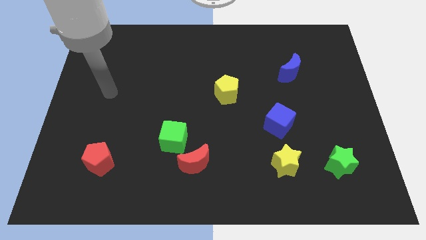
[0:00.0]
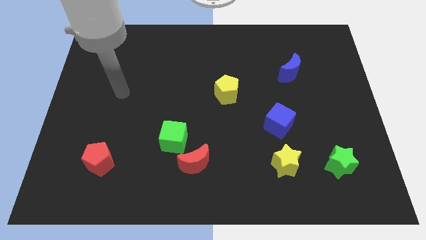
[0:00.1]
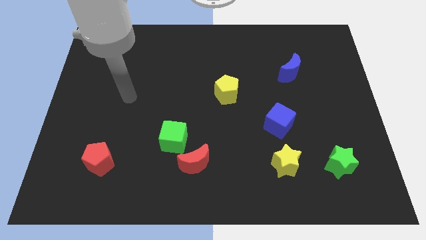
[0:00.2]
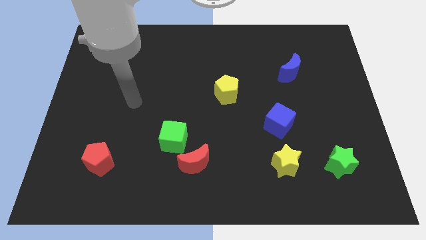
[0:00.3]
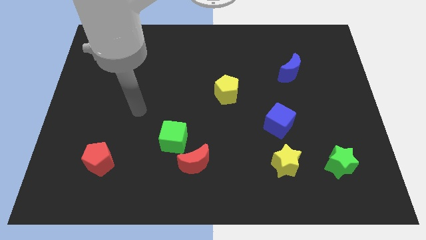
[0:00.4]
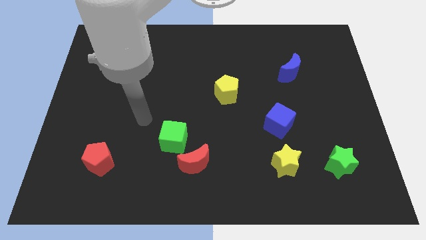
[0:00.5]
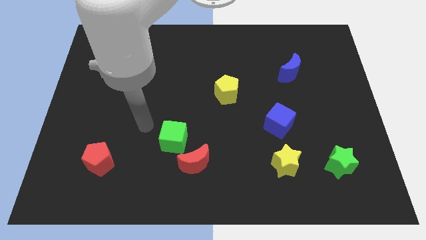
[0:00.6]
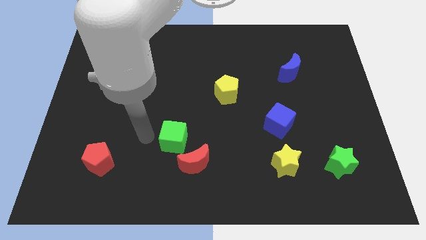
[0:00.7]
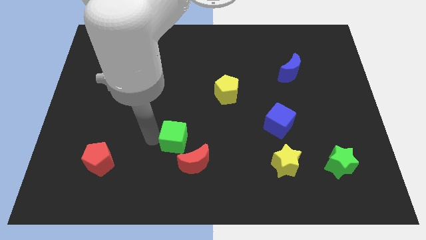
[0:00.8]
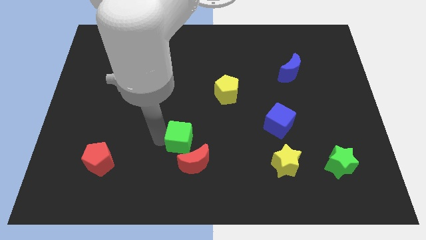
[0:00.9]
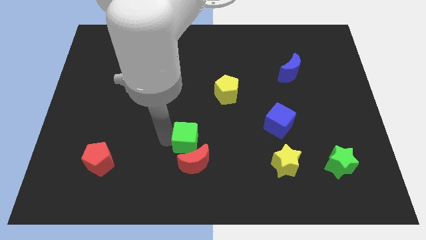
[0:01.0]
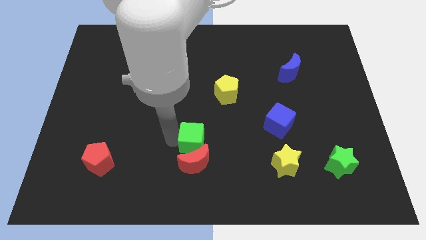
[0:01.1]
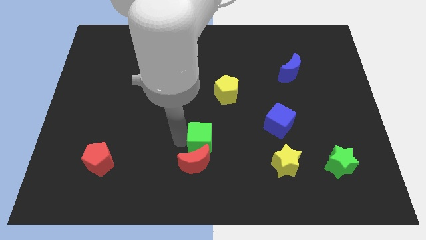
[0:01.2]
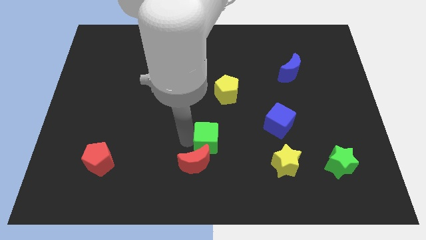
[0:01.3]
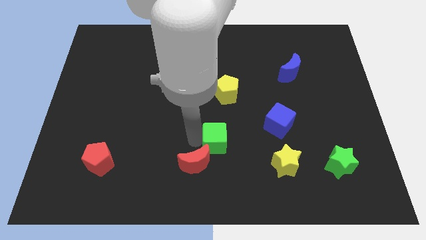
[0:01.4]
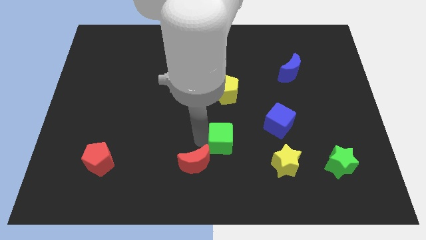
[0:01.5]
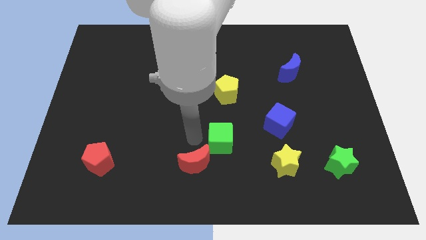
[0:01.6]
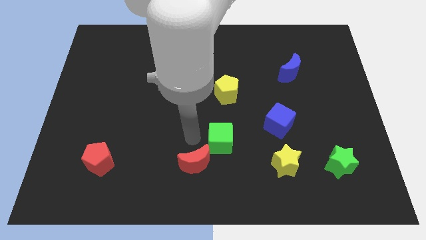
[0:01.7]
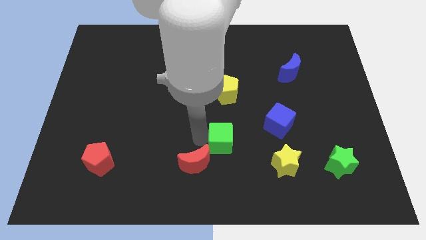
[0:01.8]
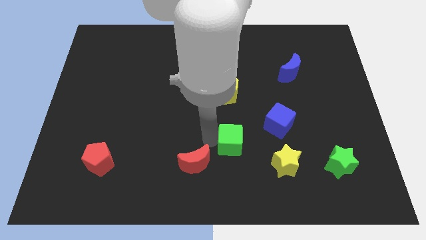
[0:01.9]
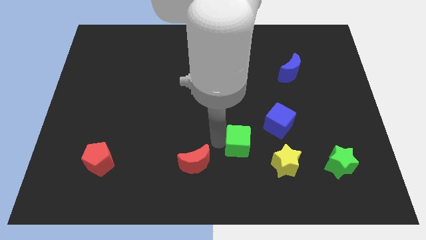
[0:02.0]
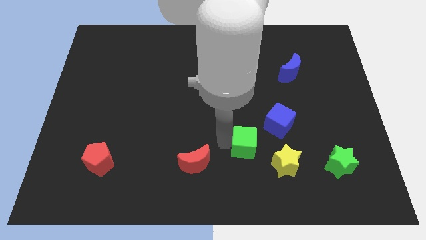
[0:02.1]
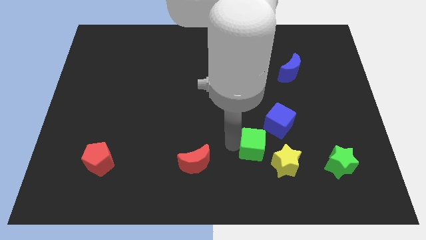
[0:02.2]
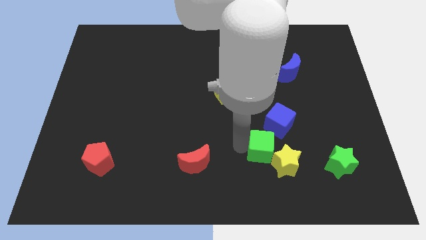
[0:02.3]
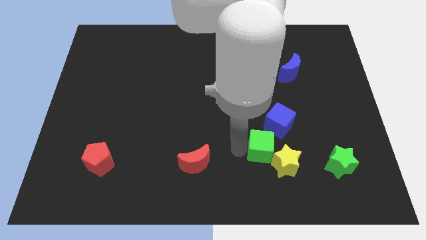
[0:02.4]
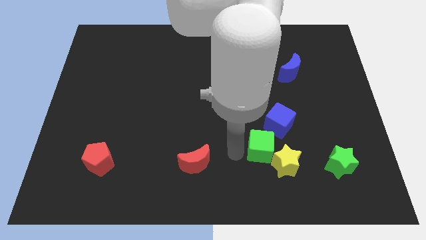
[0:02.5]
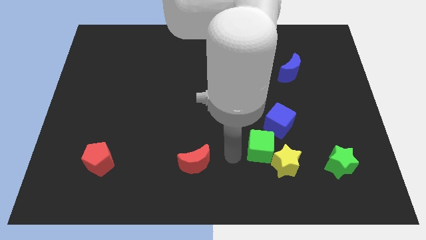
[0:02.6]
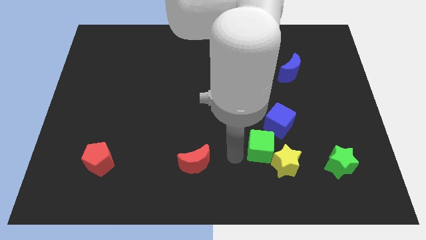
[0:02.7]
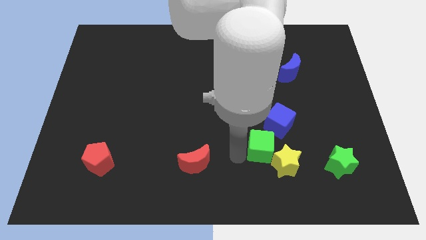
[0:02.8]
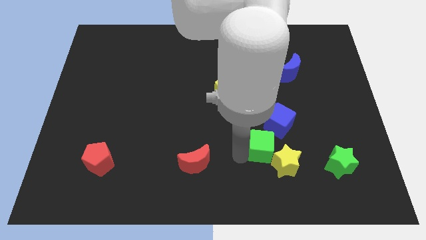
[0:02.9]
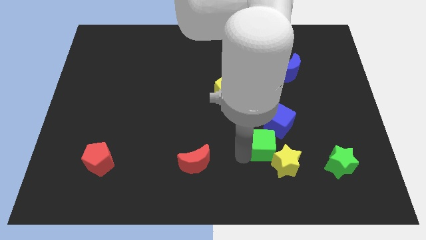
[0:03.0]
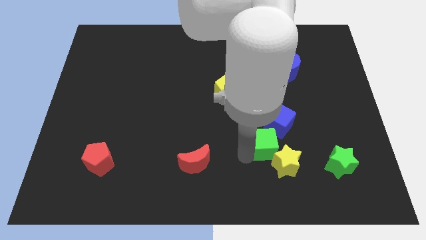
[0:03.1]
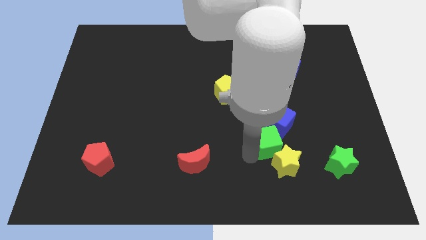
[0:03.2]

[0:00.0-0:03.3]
slide the green cube right

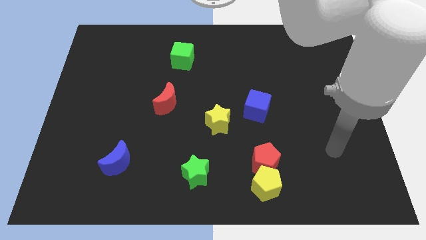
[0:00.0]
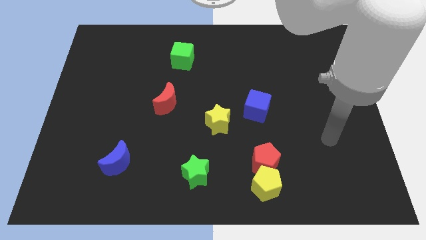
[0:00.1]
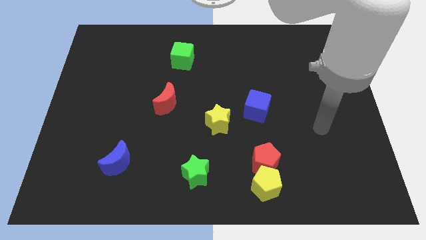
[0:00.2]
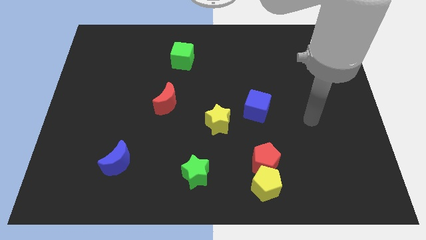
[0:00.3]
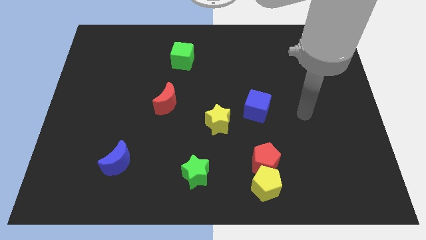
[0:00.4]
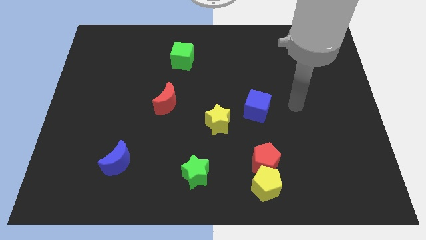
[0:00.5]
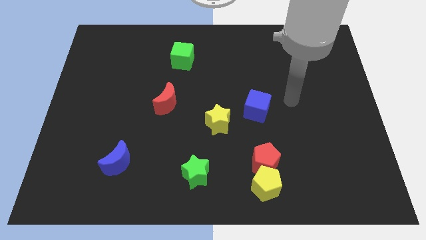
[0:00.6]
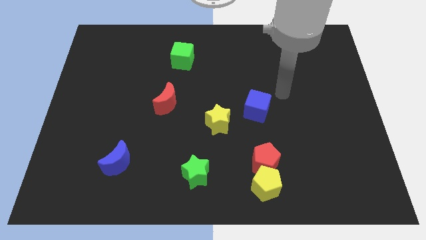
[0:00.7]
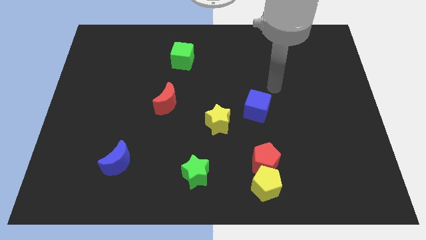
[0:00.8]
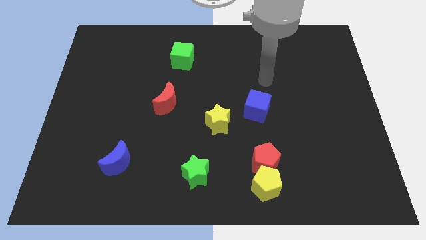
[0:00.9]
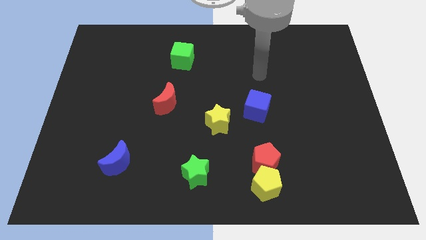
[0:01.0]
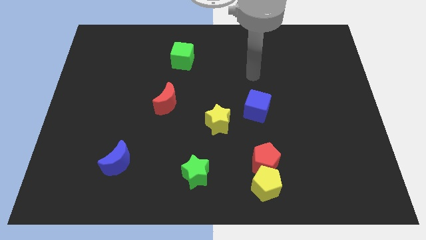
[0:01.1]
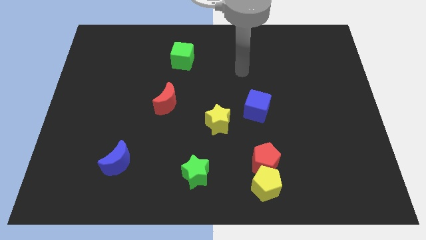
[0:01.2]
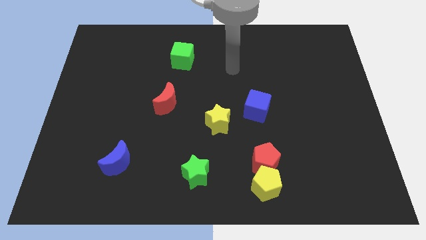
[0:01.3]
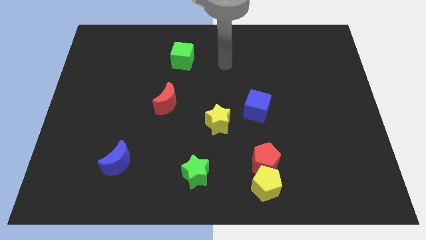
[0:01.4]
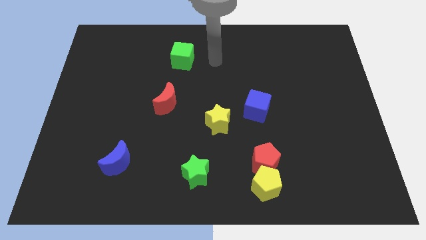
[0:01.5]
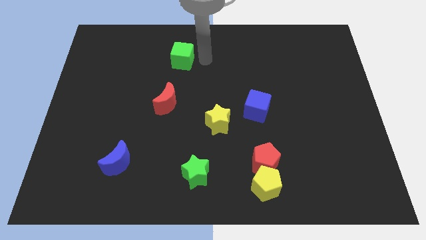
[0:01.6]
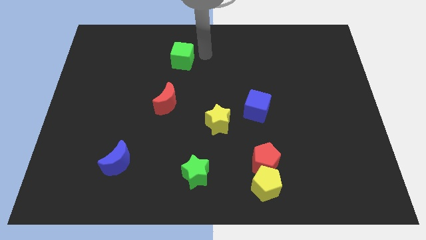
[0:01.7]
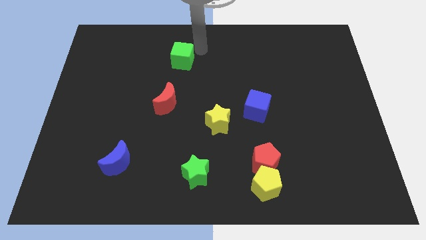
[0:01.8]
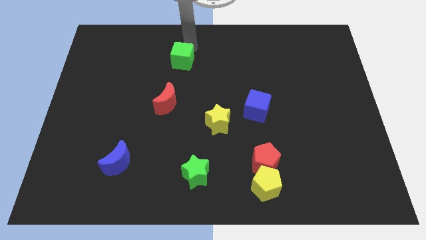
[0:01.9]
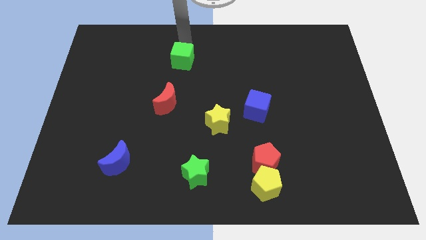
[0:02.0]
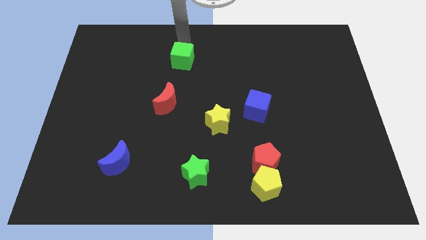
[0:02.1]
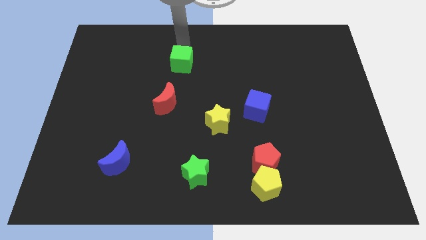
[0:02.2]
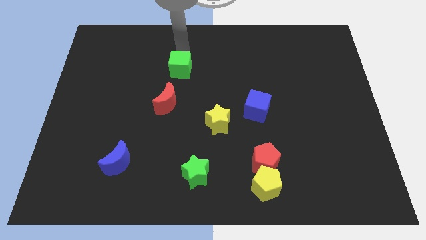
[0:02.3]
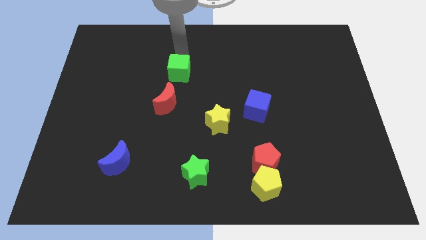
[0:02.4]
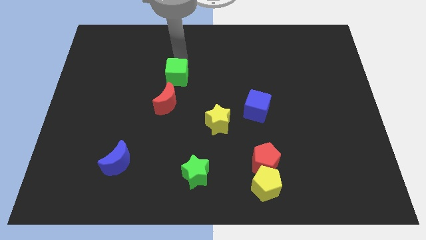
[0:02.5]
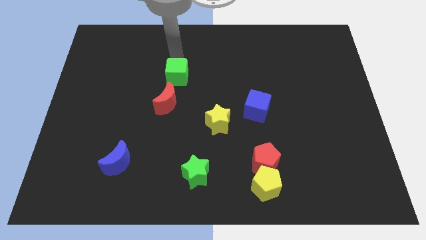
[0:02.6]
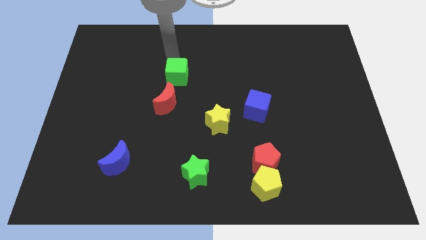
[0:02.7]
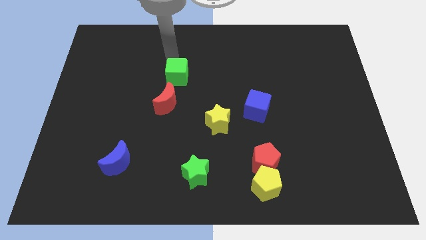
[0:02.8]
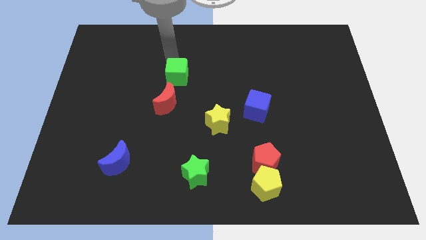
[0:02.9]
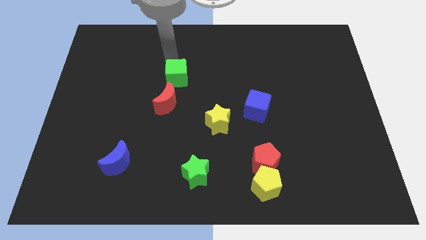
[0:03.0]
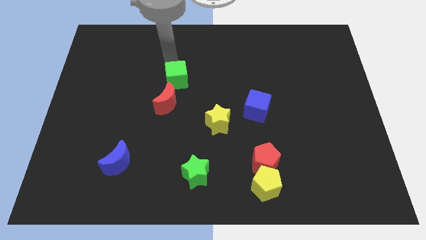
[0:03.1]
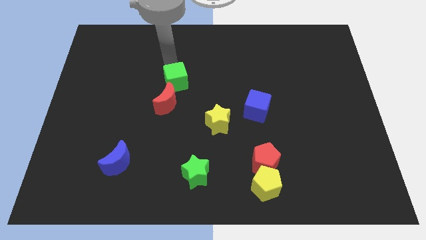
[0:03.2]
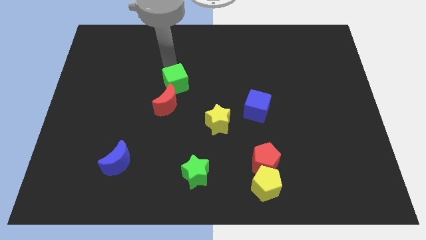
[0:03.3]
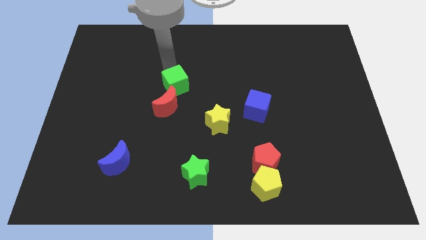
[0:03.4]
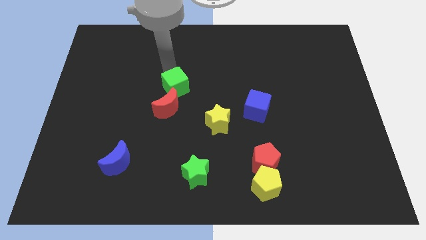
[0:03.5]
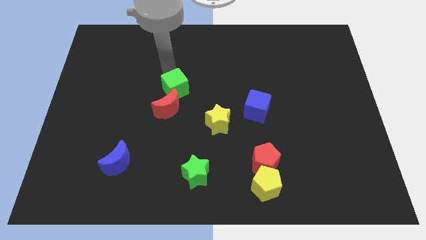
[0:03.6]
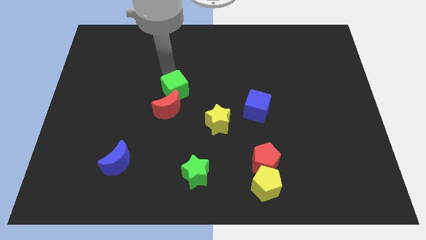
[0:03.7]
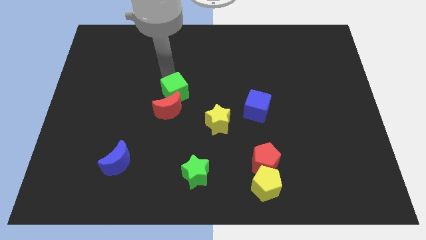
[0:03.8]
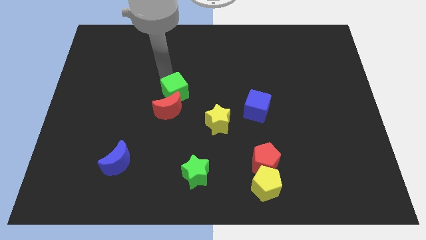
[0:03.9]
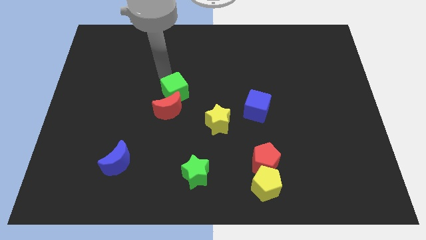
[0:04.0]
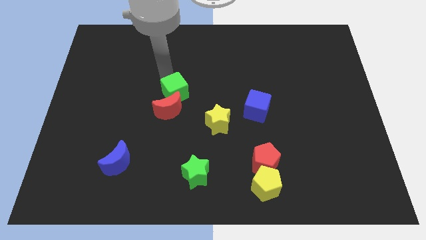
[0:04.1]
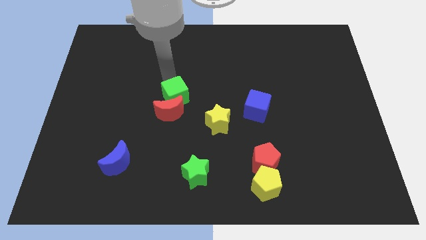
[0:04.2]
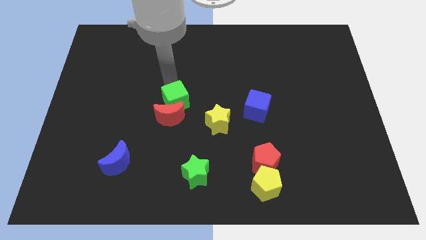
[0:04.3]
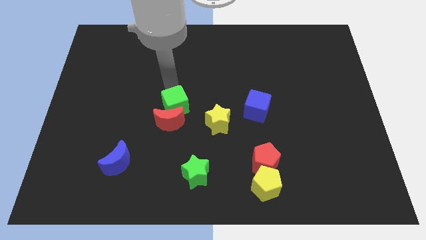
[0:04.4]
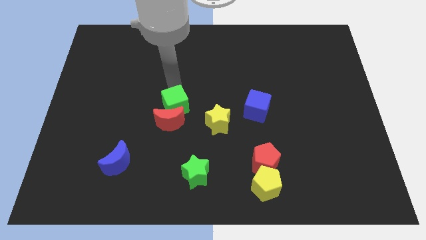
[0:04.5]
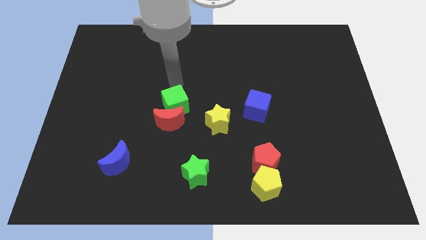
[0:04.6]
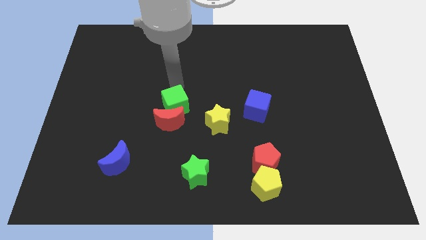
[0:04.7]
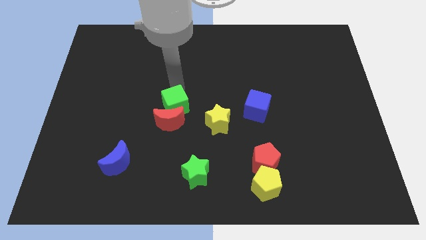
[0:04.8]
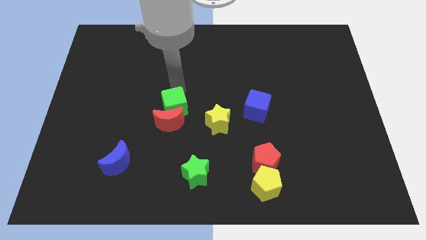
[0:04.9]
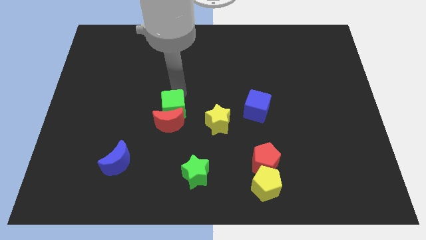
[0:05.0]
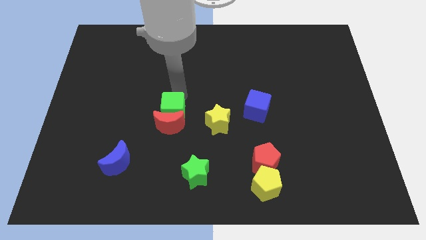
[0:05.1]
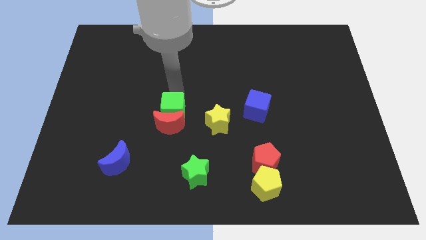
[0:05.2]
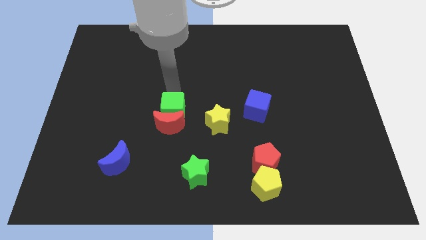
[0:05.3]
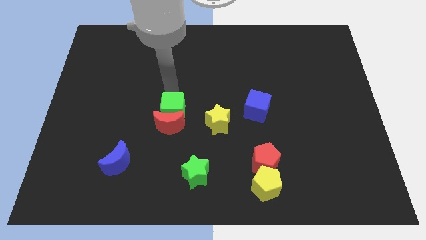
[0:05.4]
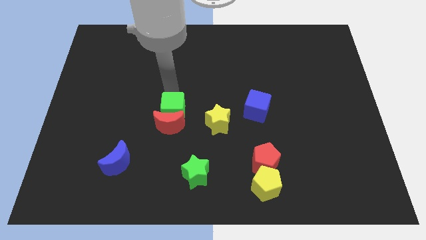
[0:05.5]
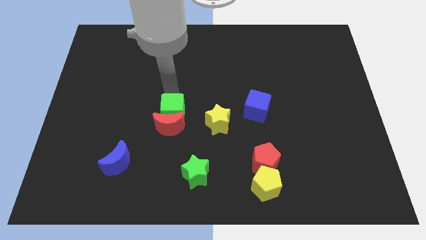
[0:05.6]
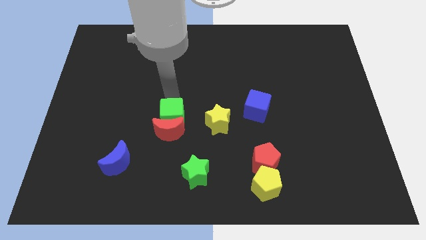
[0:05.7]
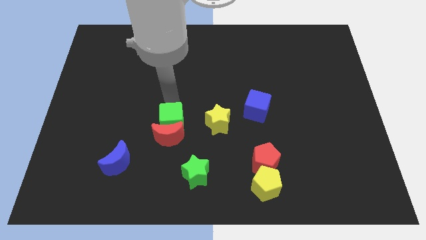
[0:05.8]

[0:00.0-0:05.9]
move the green cube down
